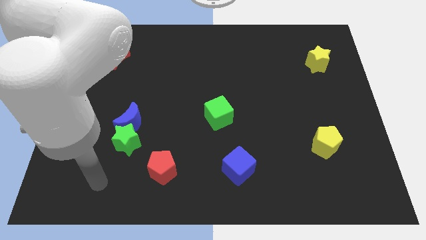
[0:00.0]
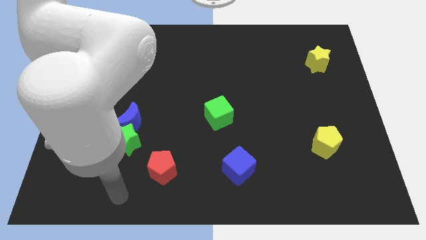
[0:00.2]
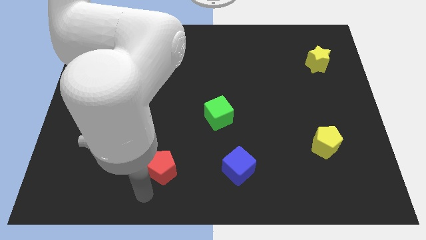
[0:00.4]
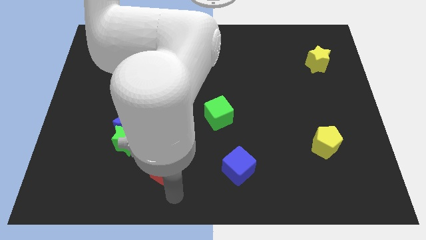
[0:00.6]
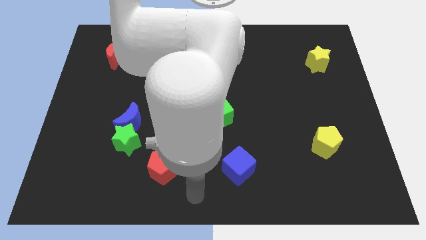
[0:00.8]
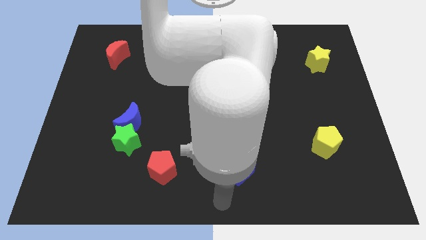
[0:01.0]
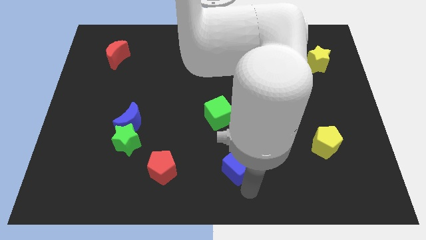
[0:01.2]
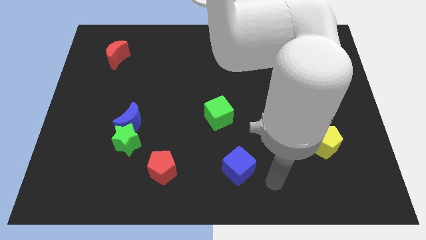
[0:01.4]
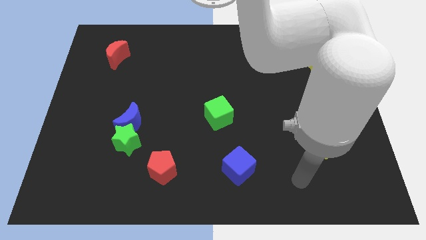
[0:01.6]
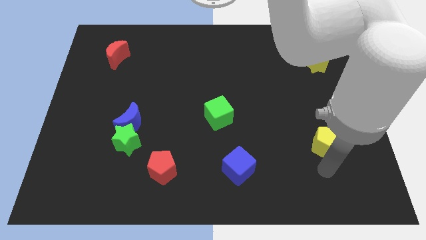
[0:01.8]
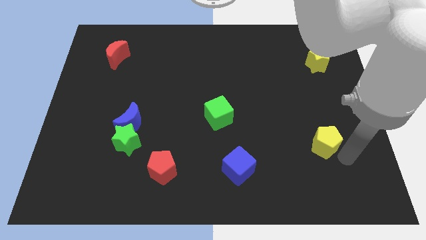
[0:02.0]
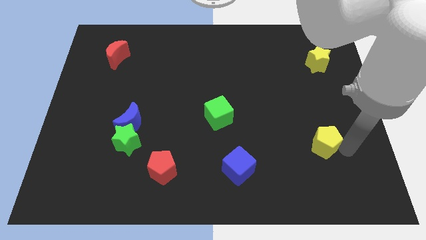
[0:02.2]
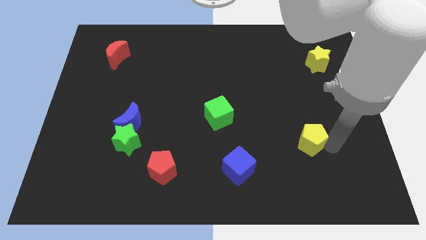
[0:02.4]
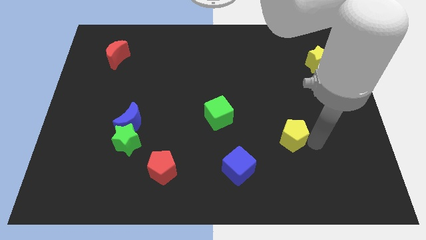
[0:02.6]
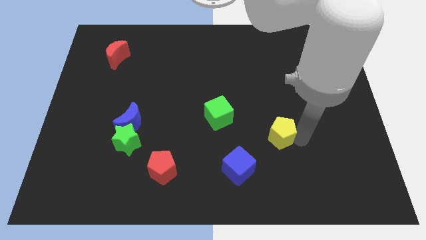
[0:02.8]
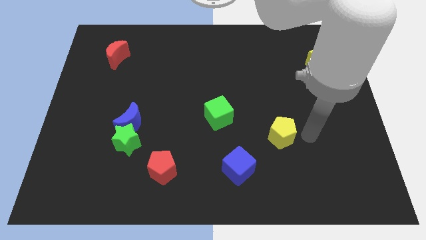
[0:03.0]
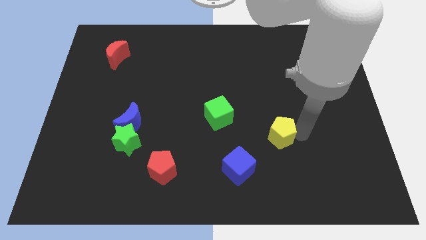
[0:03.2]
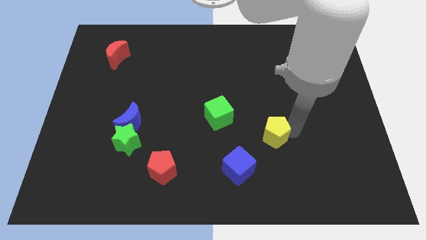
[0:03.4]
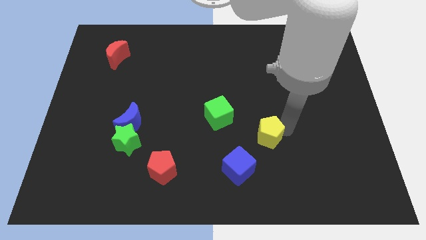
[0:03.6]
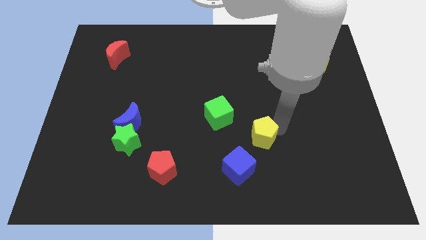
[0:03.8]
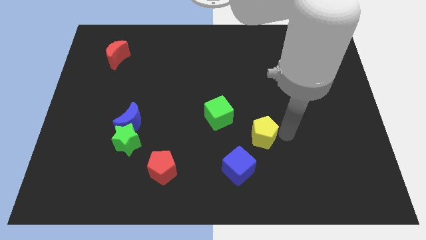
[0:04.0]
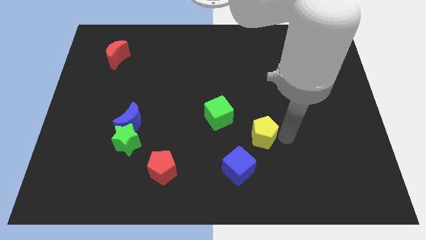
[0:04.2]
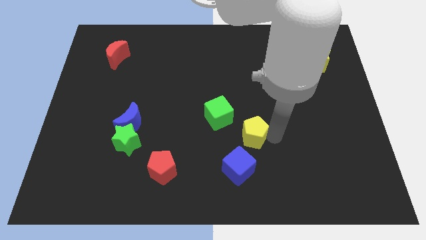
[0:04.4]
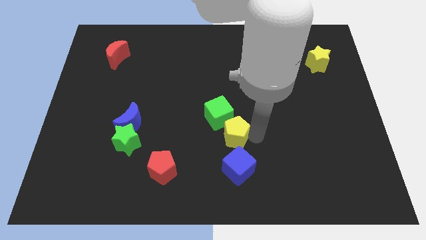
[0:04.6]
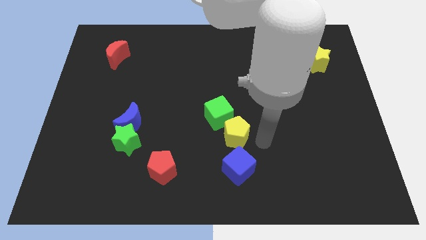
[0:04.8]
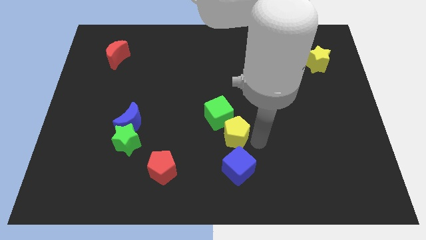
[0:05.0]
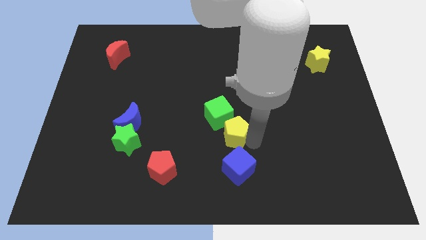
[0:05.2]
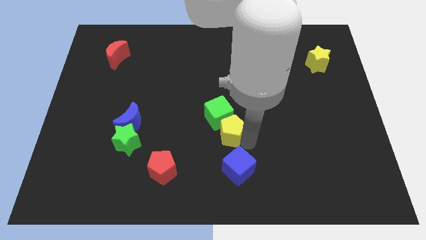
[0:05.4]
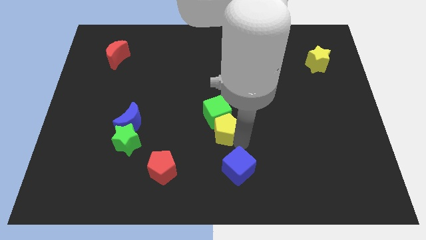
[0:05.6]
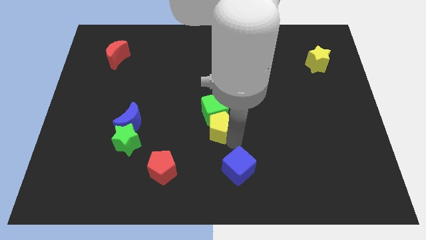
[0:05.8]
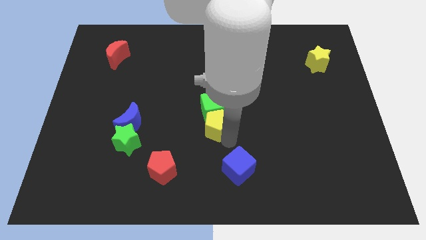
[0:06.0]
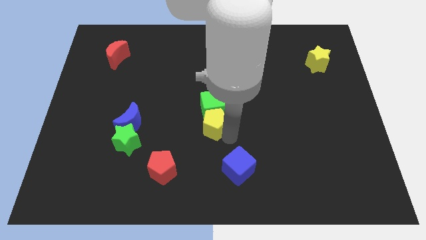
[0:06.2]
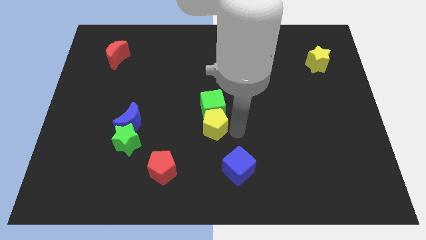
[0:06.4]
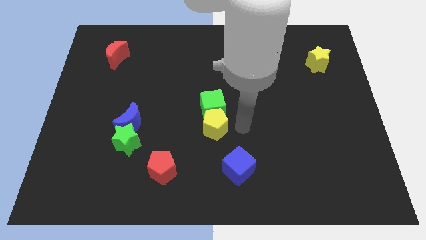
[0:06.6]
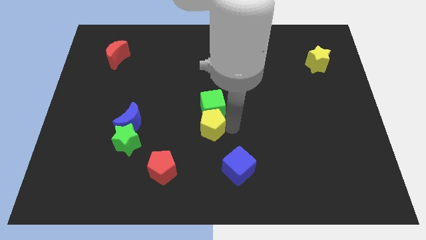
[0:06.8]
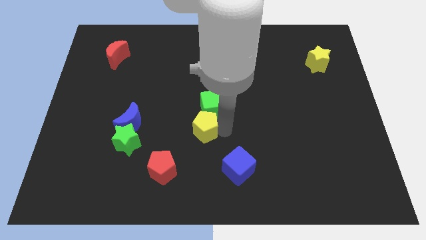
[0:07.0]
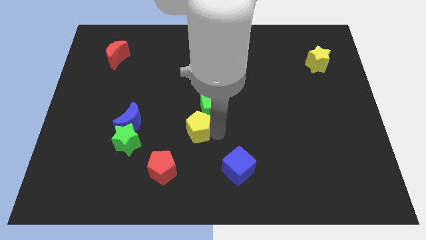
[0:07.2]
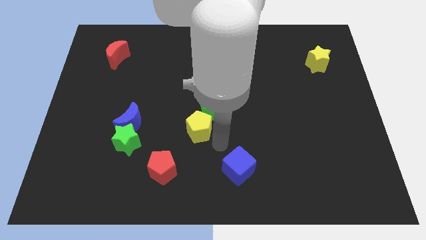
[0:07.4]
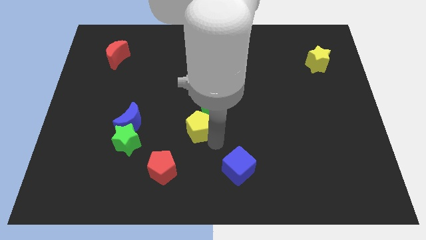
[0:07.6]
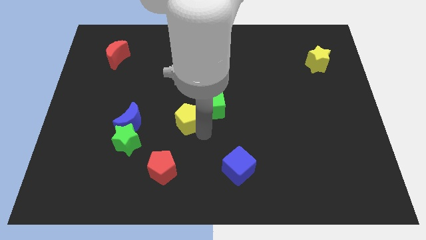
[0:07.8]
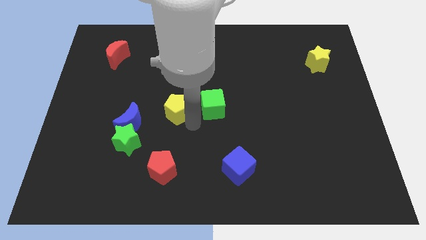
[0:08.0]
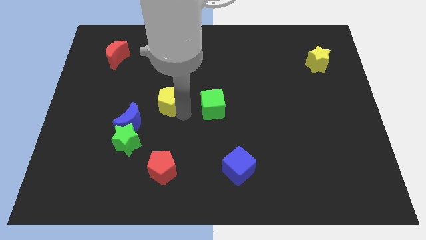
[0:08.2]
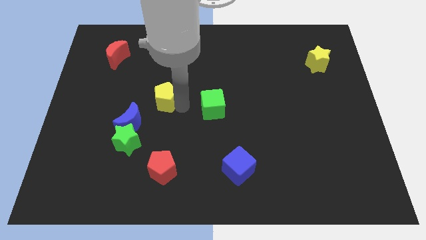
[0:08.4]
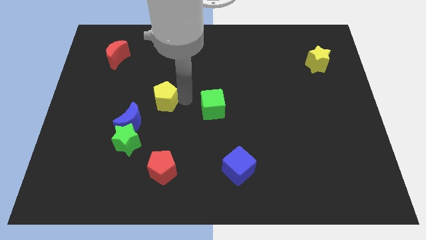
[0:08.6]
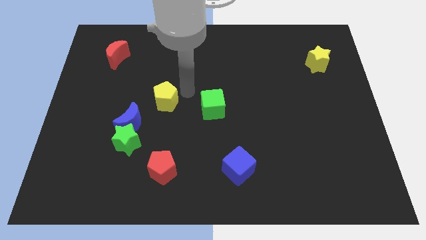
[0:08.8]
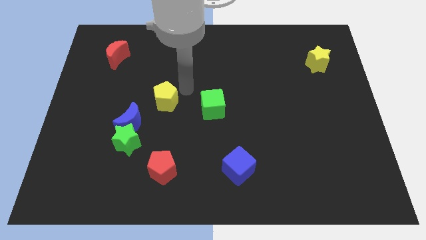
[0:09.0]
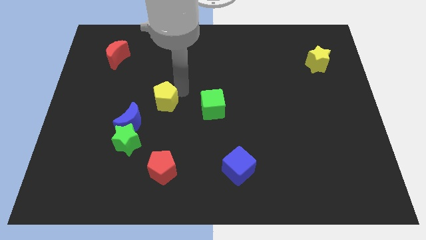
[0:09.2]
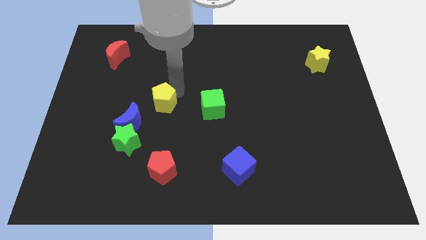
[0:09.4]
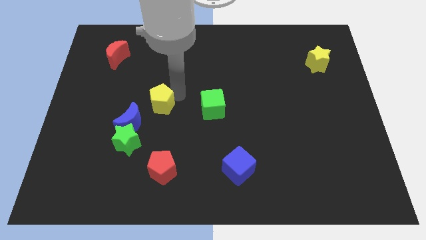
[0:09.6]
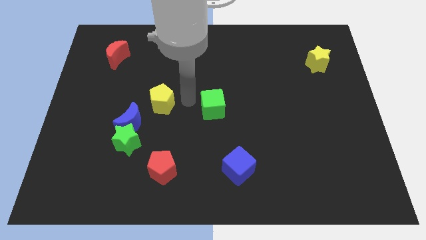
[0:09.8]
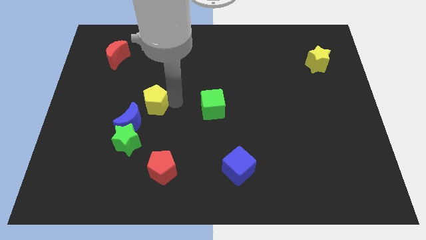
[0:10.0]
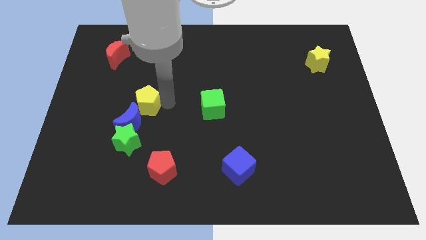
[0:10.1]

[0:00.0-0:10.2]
put the yellow pentagon to the top side of the green star

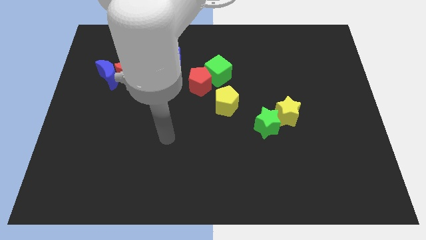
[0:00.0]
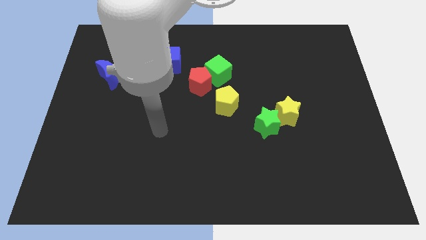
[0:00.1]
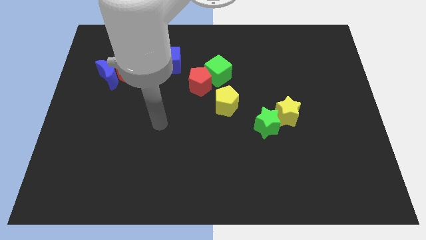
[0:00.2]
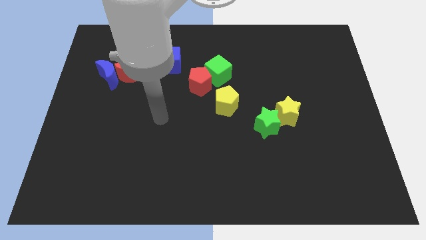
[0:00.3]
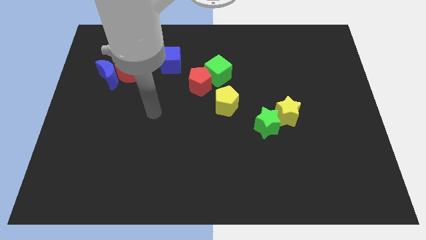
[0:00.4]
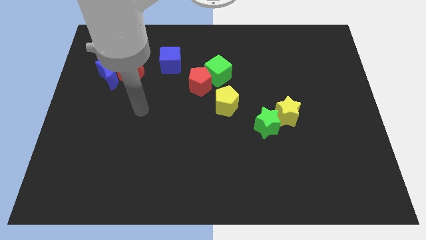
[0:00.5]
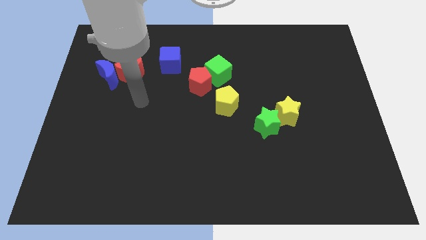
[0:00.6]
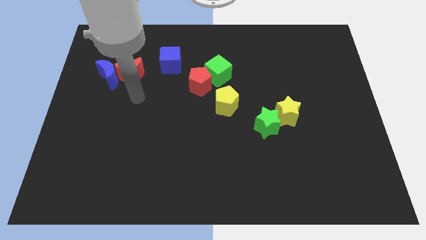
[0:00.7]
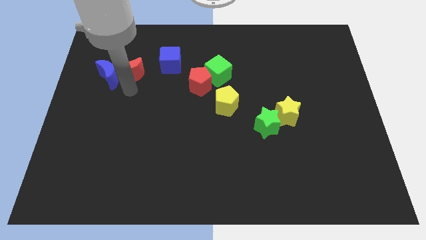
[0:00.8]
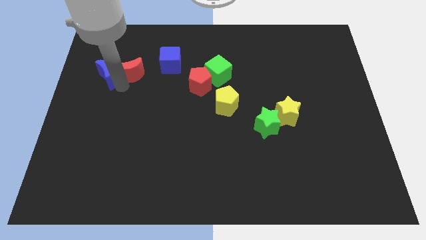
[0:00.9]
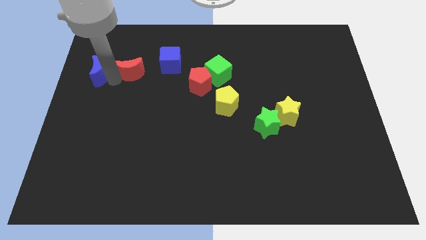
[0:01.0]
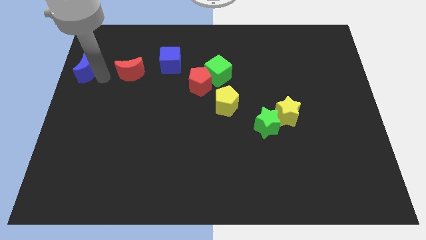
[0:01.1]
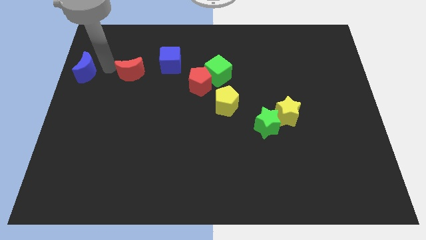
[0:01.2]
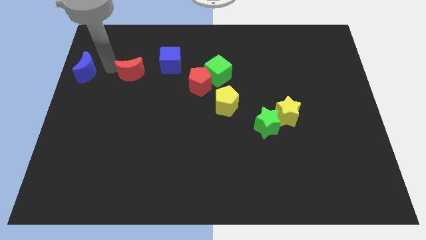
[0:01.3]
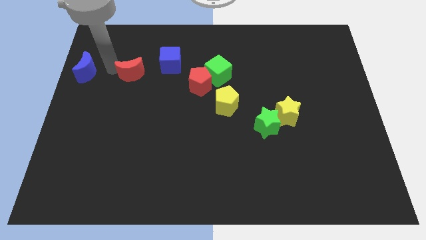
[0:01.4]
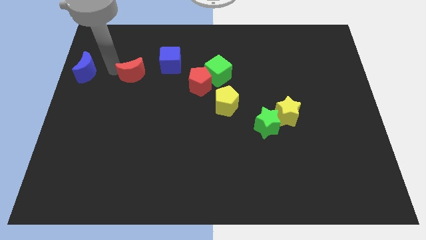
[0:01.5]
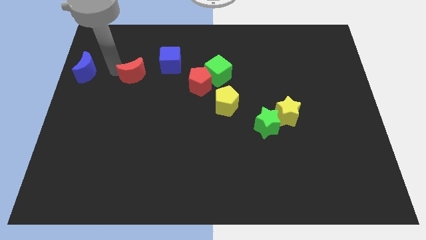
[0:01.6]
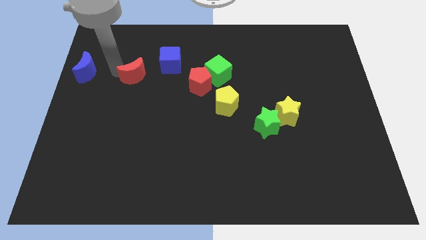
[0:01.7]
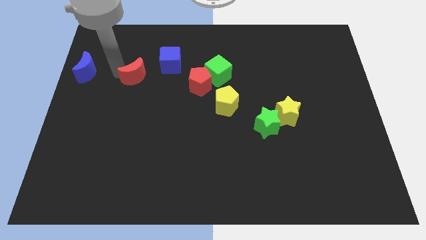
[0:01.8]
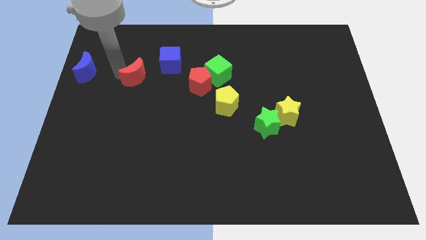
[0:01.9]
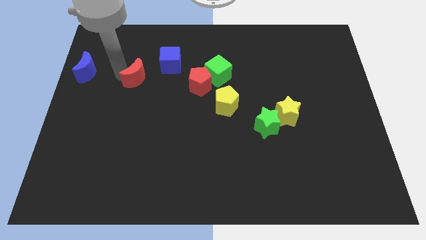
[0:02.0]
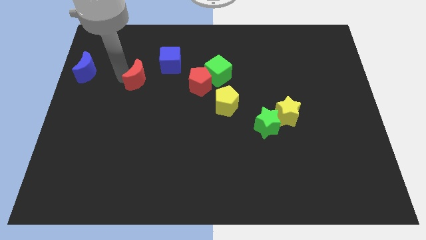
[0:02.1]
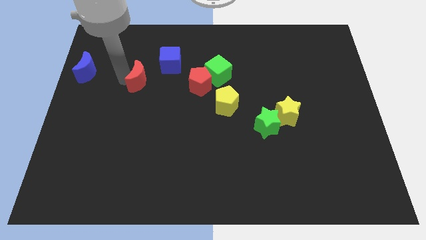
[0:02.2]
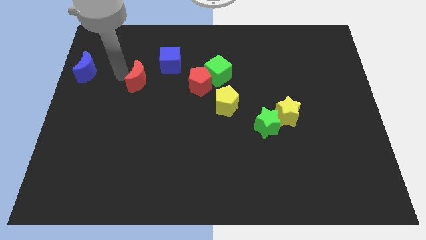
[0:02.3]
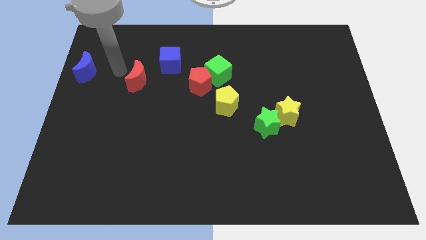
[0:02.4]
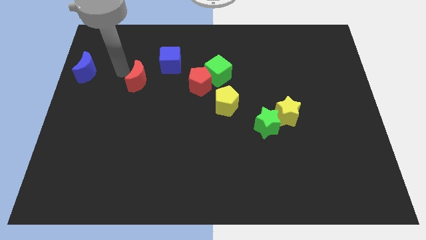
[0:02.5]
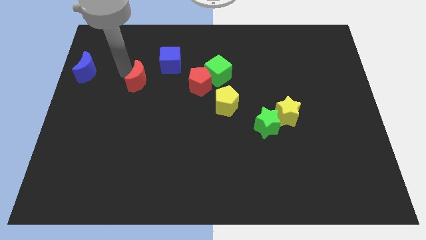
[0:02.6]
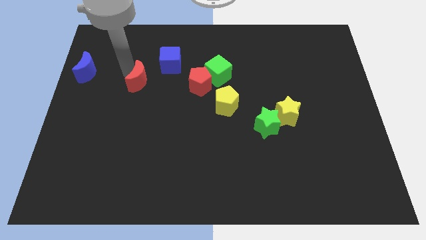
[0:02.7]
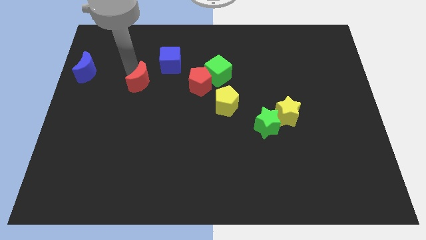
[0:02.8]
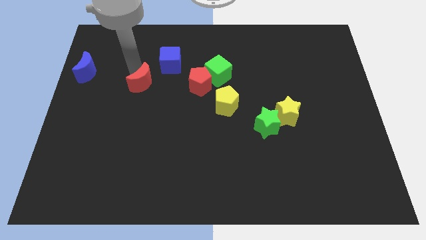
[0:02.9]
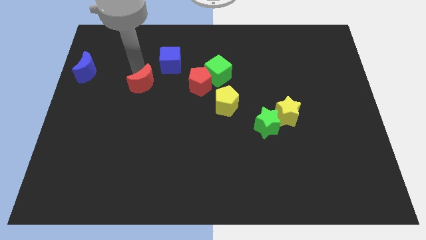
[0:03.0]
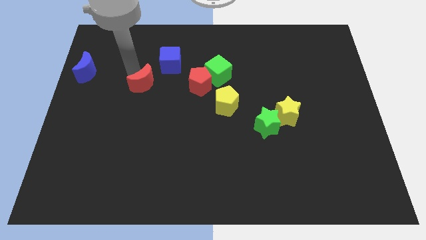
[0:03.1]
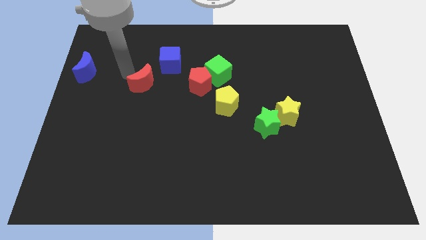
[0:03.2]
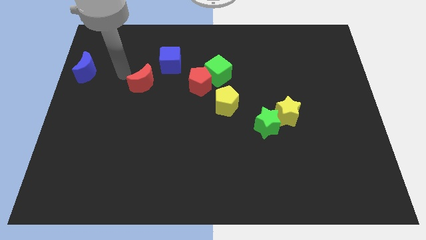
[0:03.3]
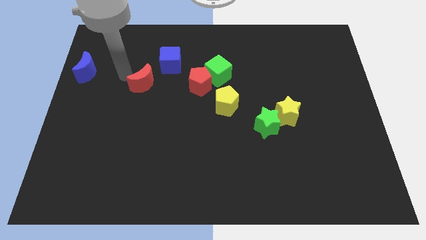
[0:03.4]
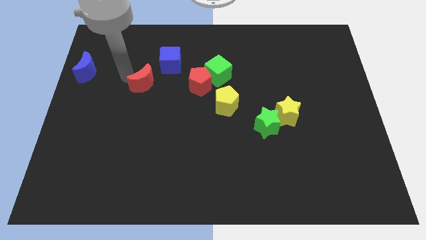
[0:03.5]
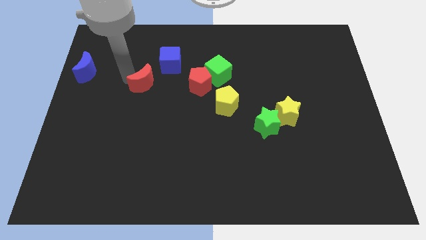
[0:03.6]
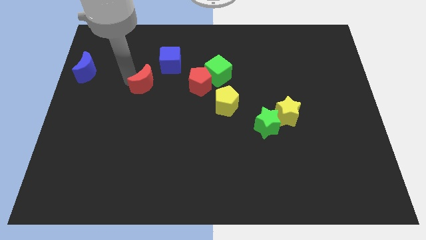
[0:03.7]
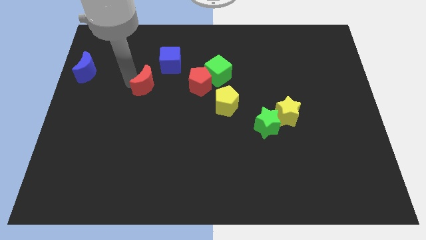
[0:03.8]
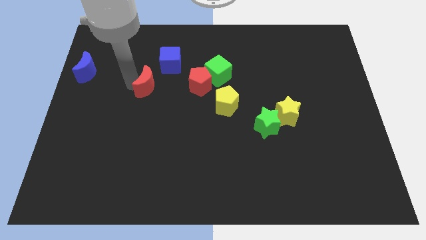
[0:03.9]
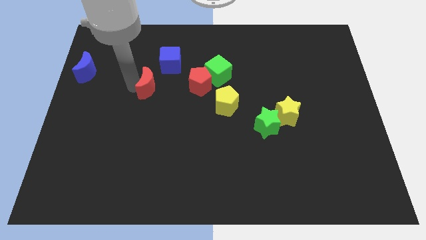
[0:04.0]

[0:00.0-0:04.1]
put the red moon below the blue cube
